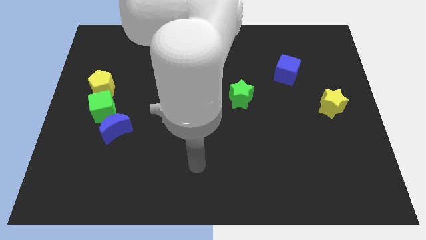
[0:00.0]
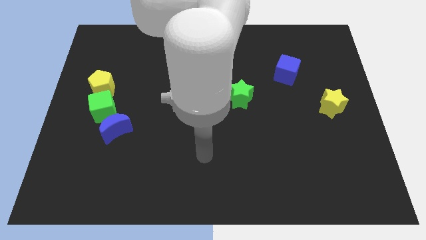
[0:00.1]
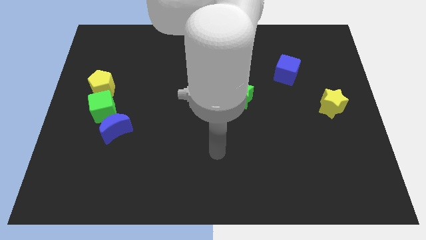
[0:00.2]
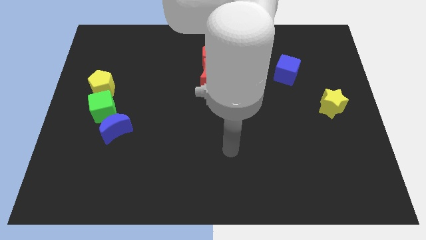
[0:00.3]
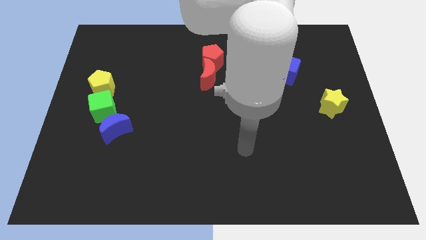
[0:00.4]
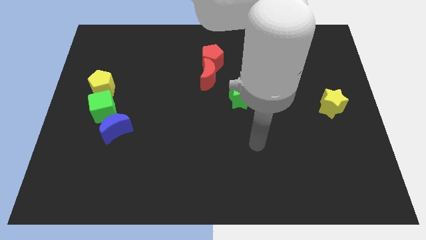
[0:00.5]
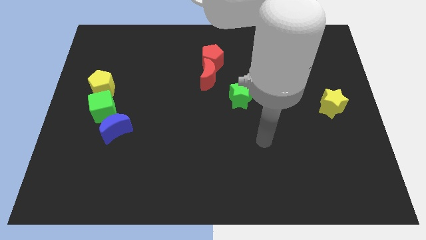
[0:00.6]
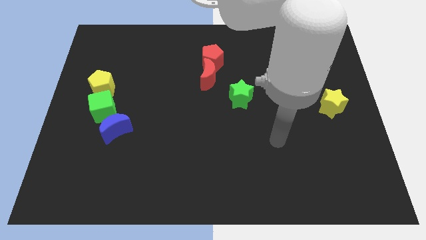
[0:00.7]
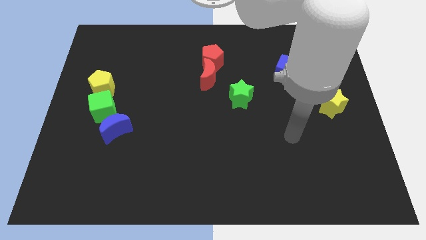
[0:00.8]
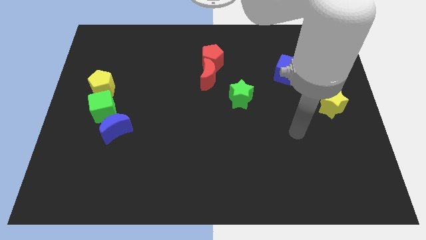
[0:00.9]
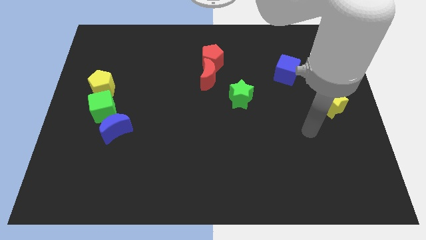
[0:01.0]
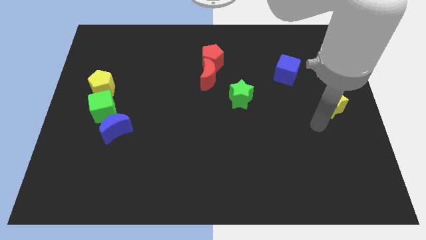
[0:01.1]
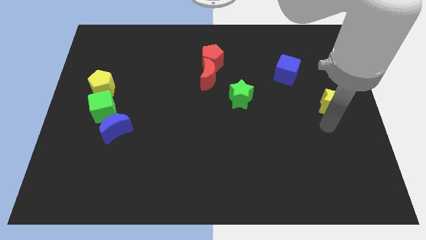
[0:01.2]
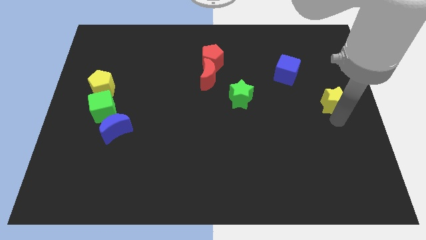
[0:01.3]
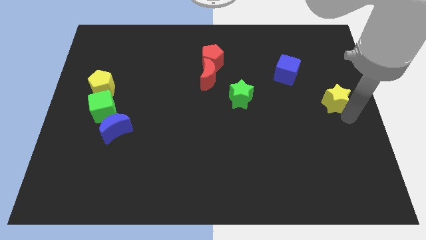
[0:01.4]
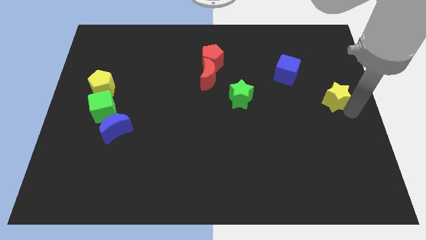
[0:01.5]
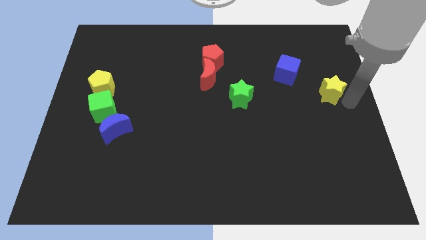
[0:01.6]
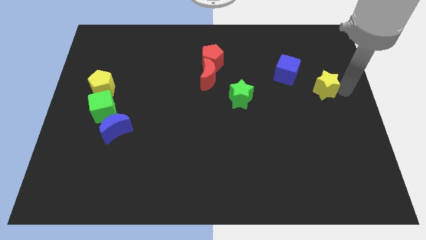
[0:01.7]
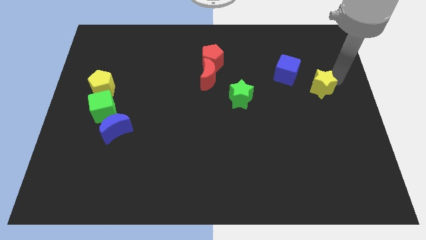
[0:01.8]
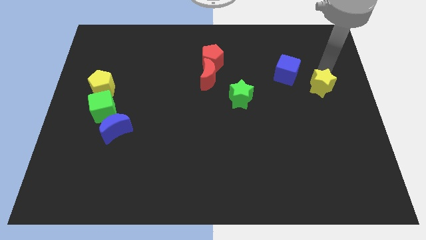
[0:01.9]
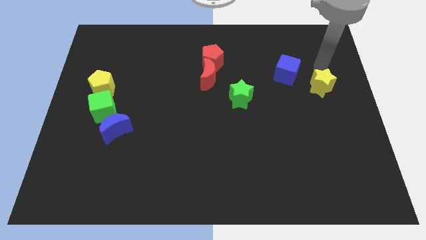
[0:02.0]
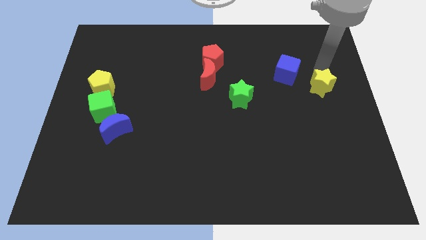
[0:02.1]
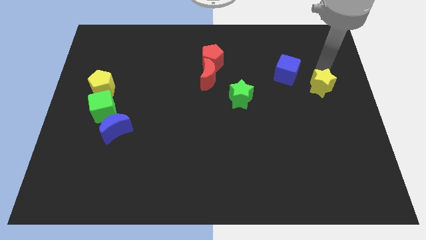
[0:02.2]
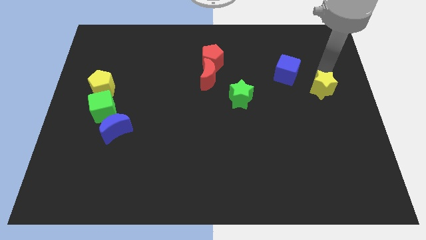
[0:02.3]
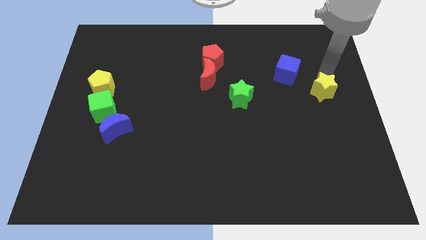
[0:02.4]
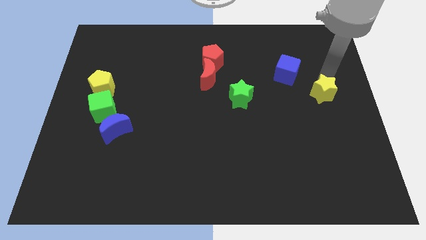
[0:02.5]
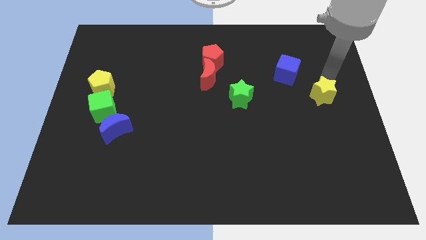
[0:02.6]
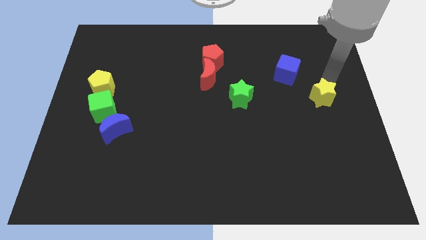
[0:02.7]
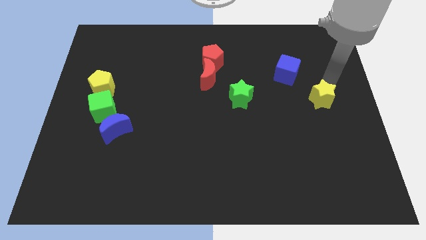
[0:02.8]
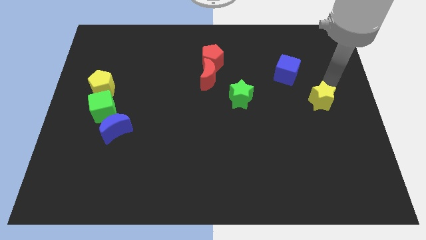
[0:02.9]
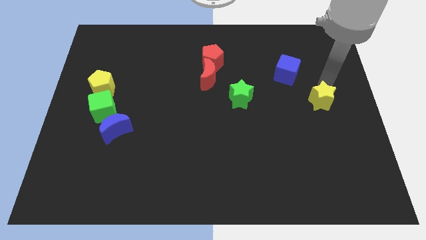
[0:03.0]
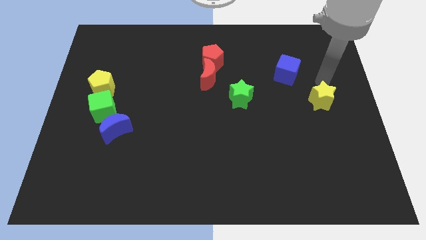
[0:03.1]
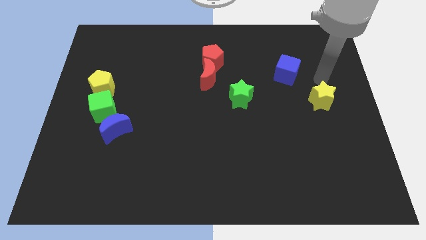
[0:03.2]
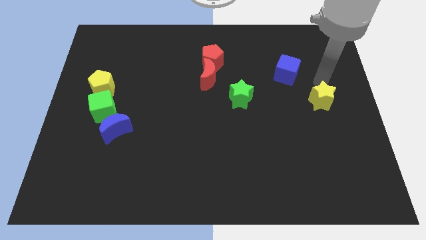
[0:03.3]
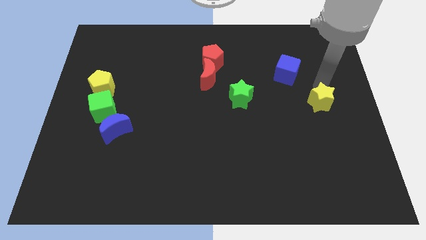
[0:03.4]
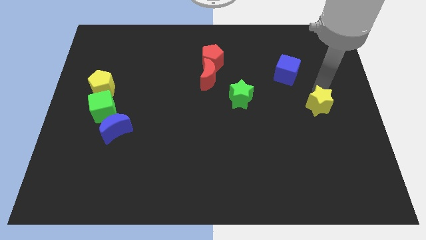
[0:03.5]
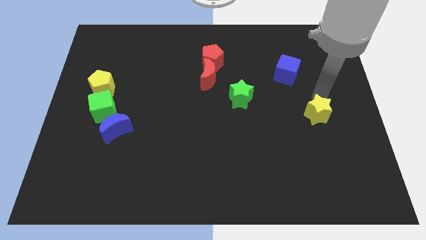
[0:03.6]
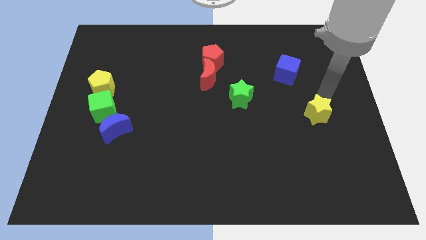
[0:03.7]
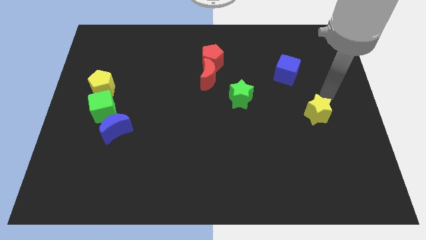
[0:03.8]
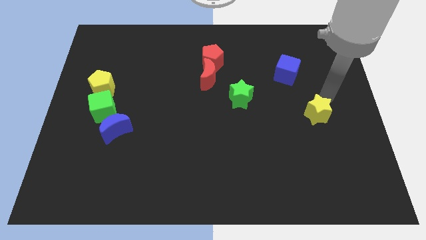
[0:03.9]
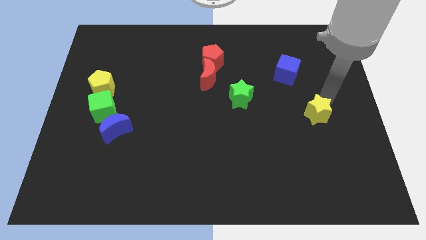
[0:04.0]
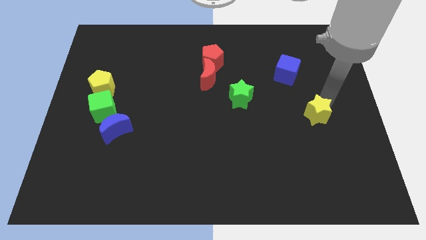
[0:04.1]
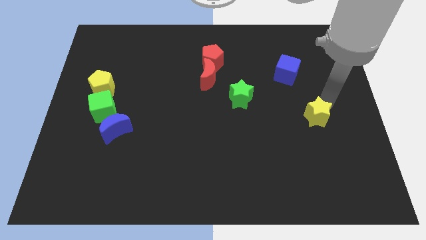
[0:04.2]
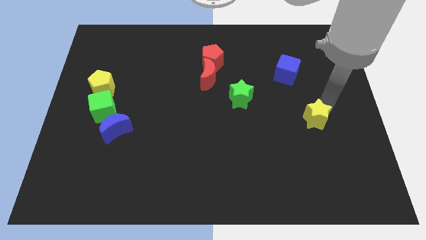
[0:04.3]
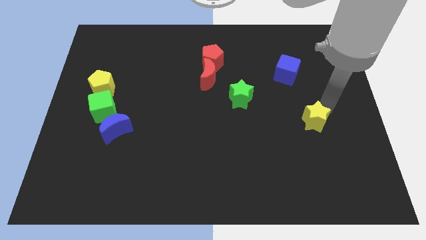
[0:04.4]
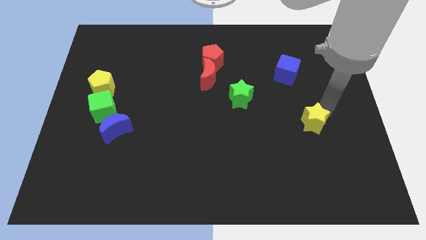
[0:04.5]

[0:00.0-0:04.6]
push the yellow star diagonally downwards and to the left a bit

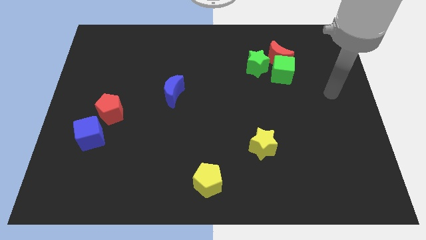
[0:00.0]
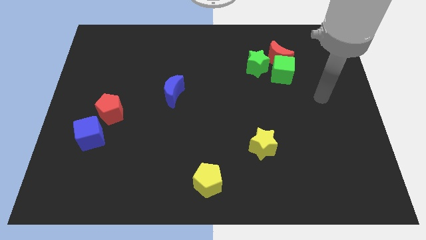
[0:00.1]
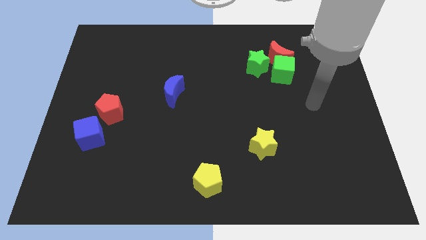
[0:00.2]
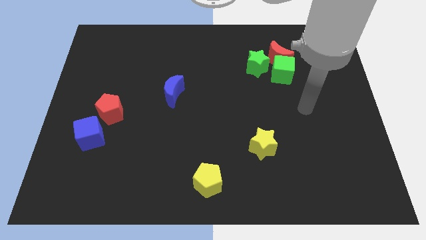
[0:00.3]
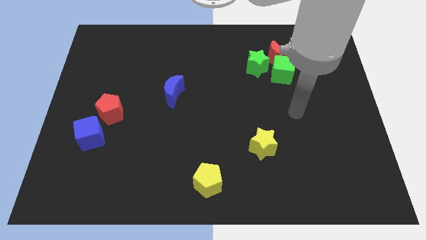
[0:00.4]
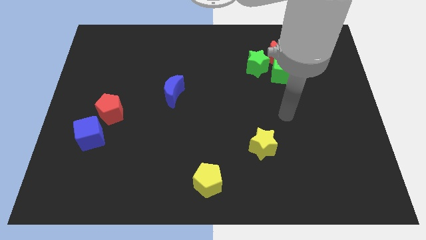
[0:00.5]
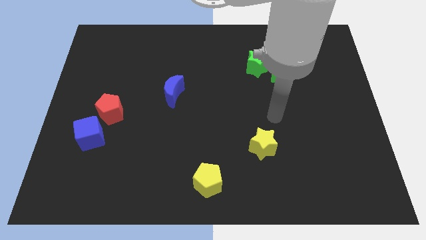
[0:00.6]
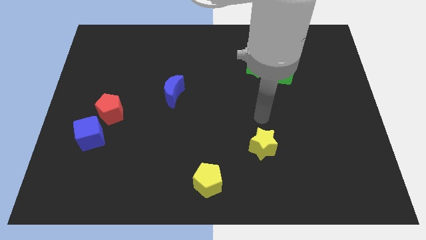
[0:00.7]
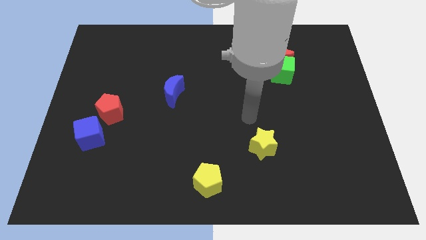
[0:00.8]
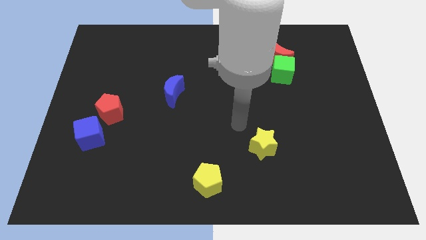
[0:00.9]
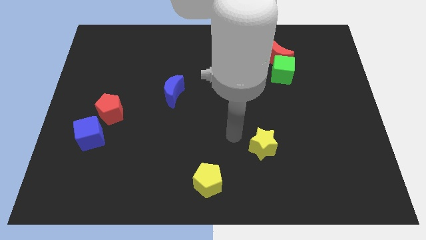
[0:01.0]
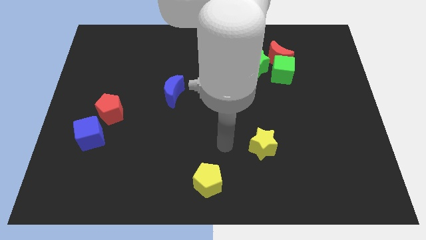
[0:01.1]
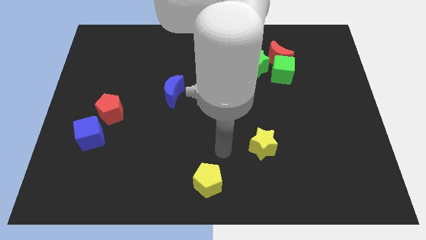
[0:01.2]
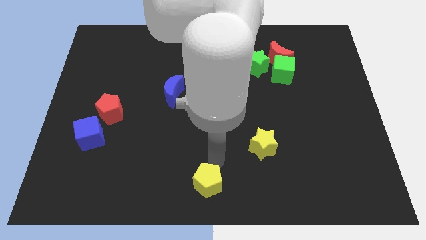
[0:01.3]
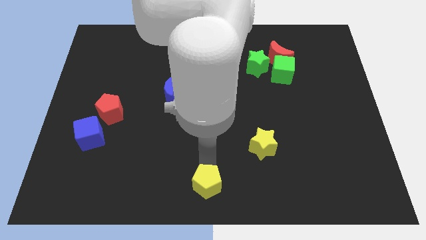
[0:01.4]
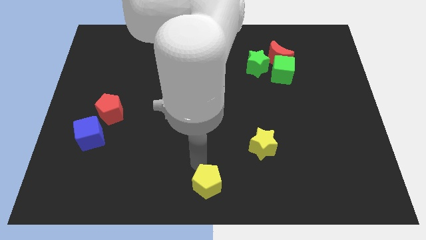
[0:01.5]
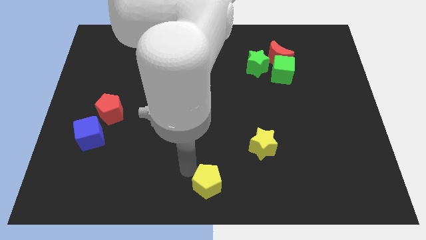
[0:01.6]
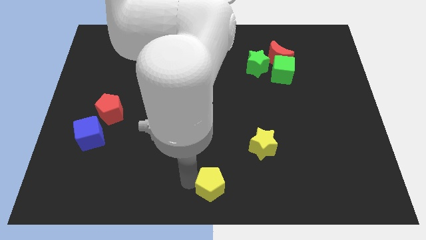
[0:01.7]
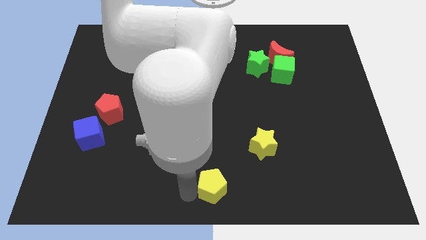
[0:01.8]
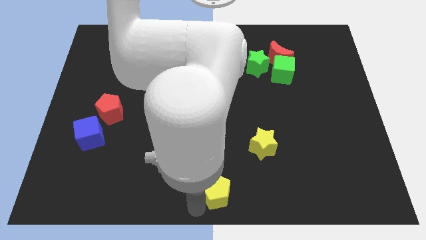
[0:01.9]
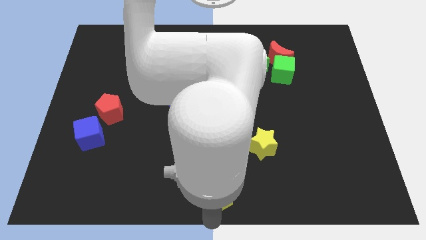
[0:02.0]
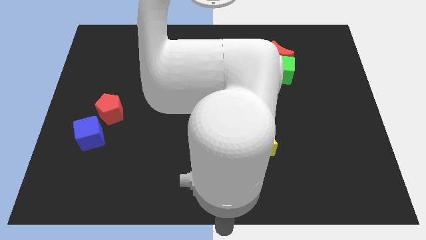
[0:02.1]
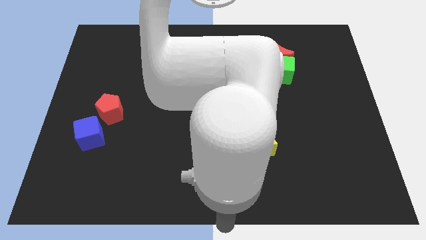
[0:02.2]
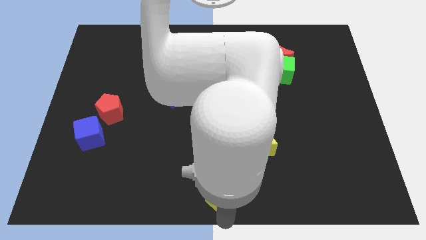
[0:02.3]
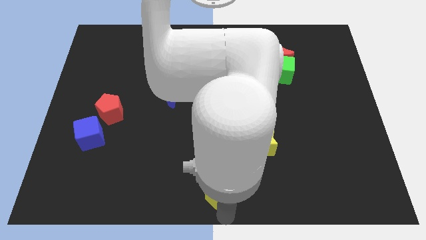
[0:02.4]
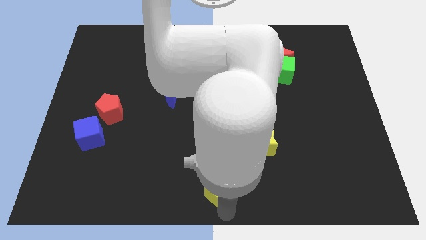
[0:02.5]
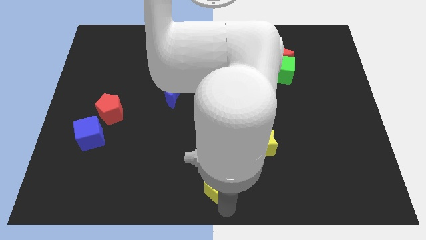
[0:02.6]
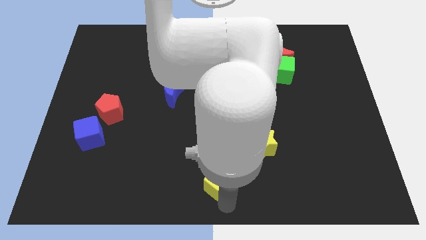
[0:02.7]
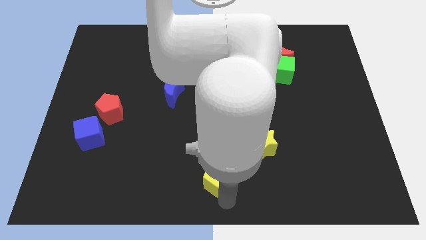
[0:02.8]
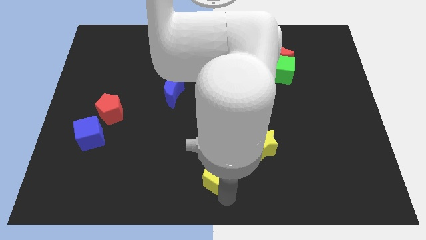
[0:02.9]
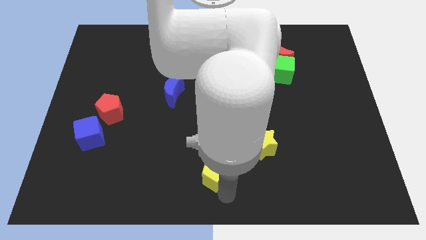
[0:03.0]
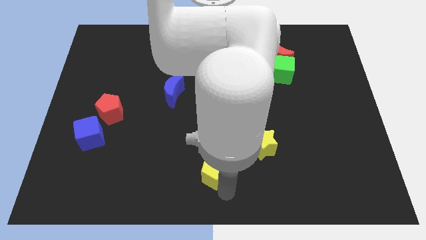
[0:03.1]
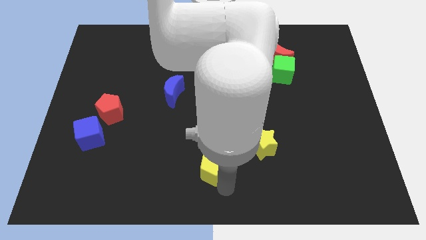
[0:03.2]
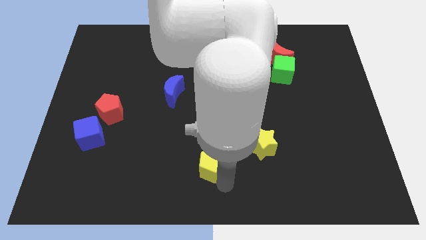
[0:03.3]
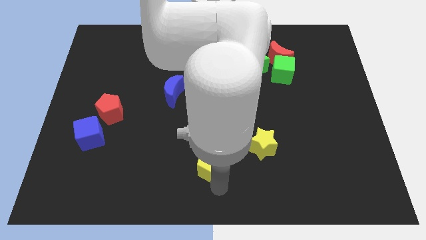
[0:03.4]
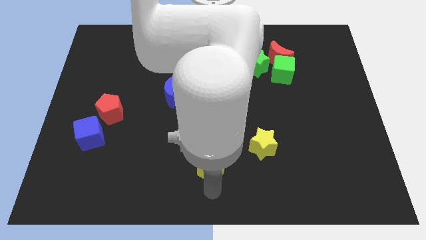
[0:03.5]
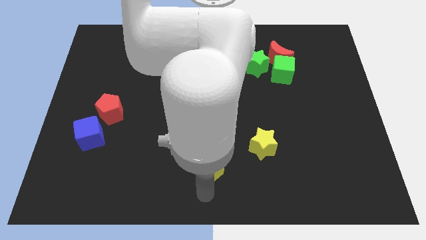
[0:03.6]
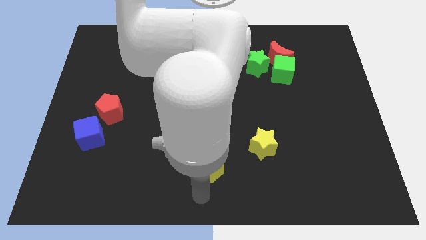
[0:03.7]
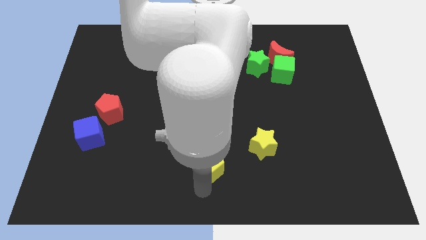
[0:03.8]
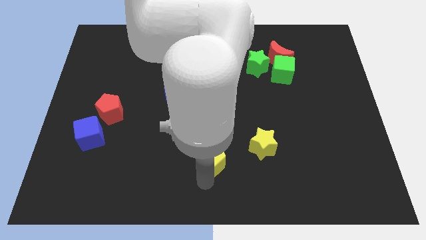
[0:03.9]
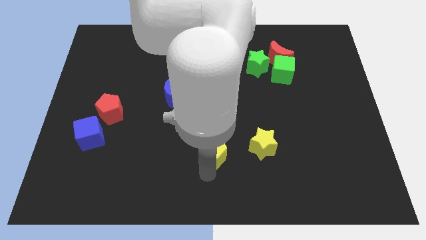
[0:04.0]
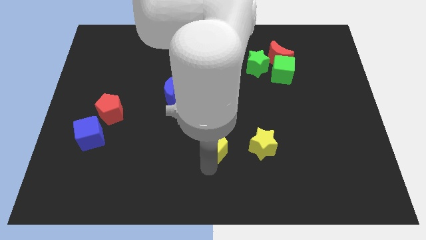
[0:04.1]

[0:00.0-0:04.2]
push the yellow pentagon a little upwards
